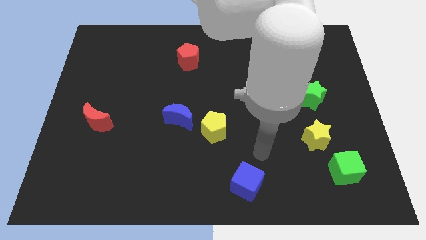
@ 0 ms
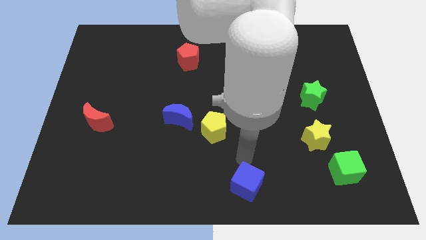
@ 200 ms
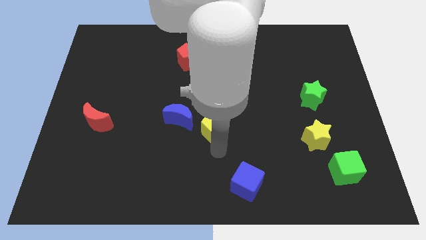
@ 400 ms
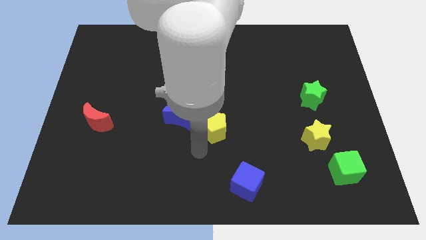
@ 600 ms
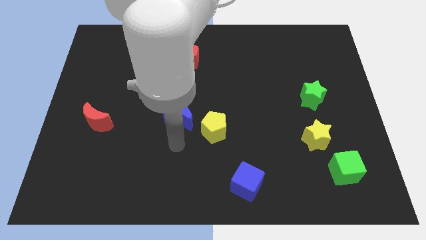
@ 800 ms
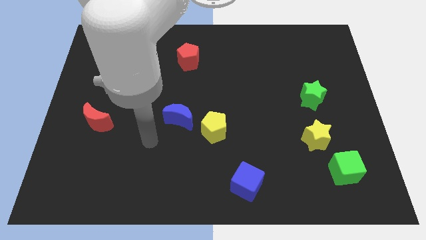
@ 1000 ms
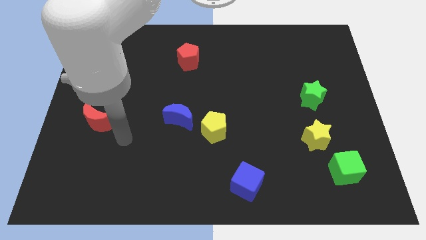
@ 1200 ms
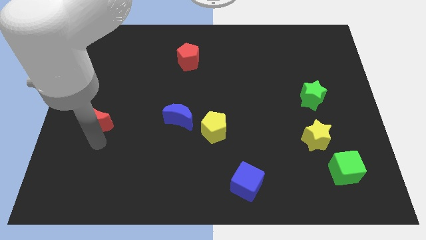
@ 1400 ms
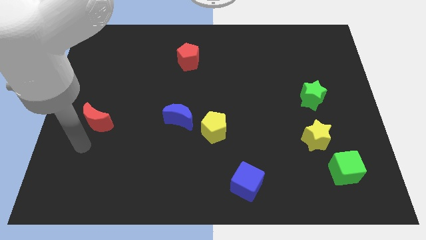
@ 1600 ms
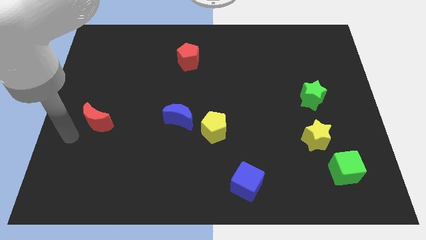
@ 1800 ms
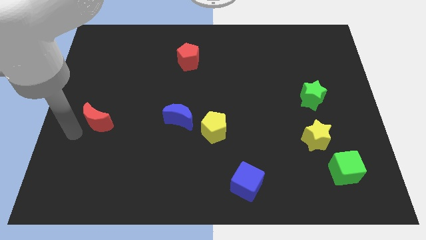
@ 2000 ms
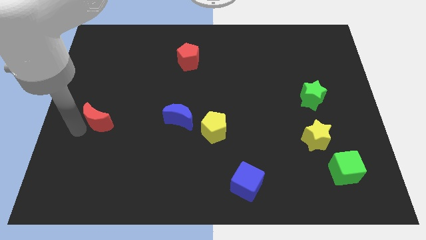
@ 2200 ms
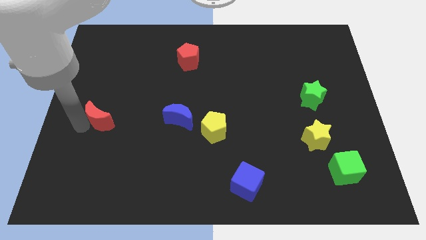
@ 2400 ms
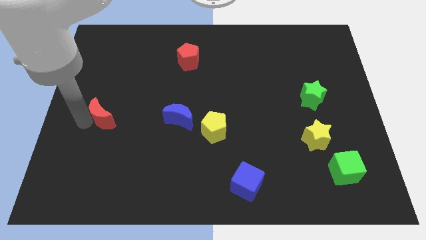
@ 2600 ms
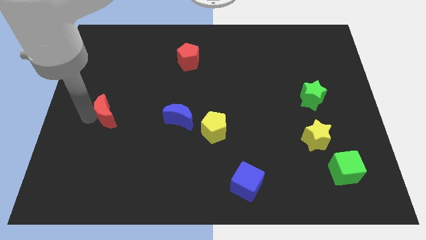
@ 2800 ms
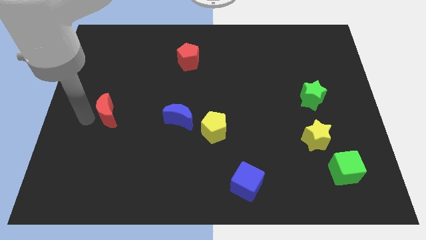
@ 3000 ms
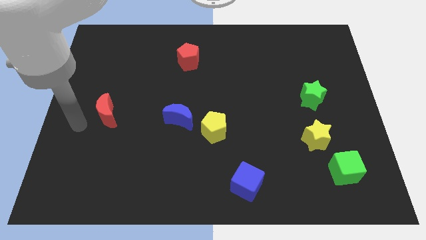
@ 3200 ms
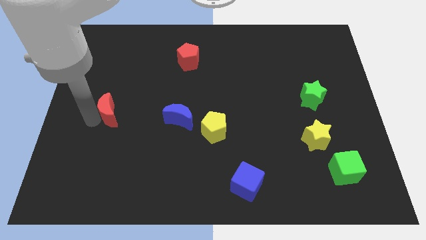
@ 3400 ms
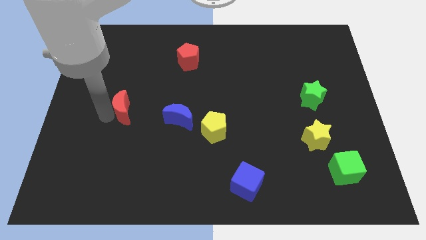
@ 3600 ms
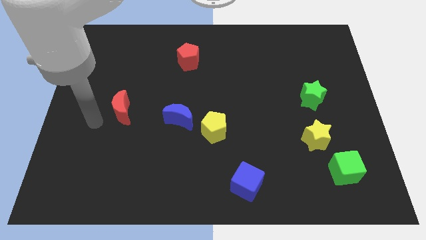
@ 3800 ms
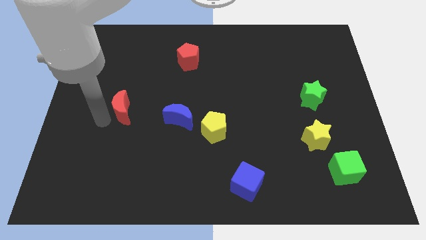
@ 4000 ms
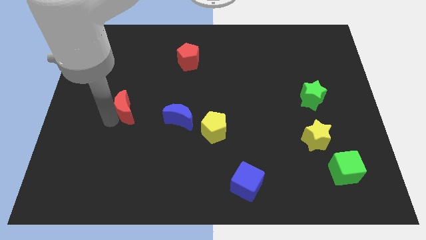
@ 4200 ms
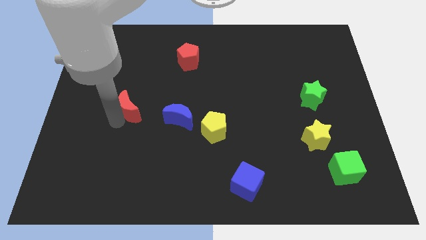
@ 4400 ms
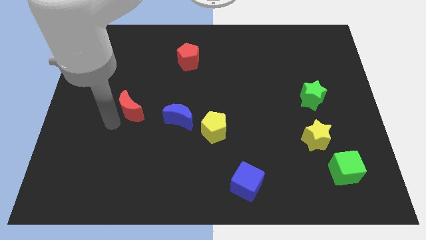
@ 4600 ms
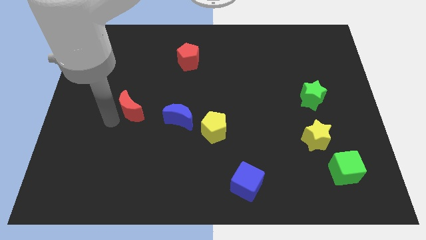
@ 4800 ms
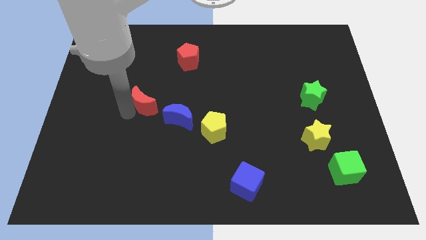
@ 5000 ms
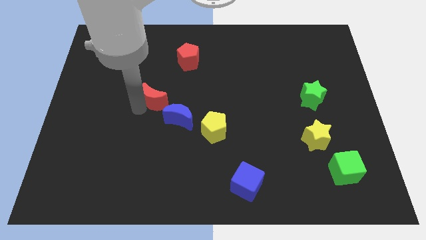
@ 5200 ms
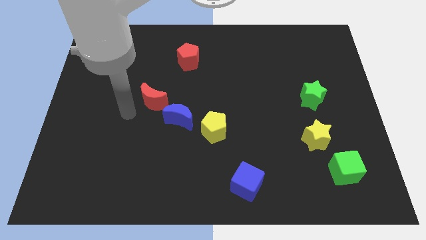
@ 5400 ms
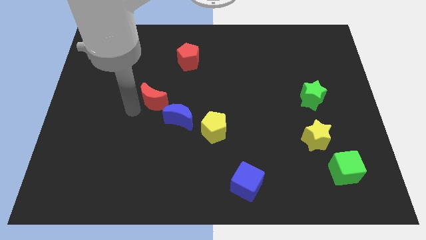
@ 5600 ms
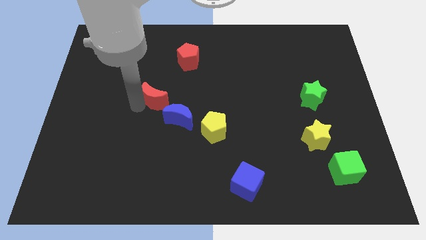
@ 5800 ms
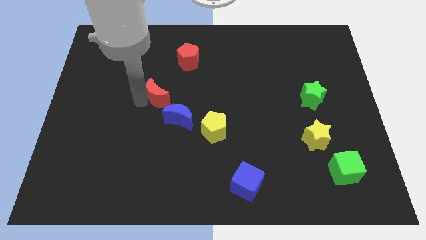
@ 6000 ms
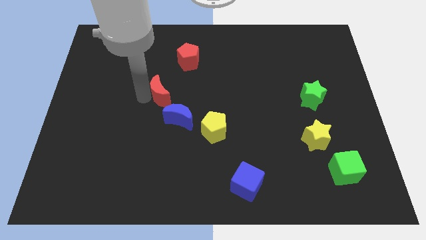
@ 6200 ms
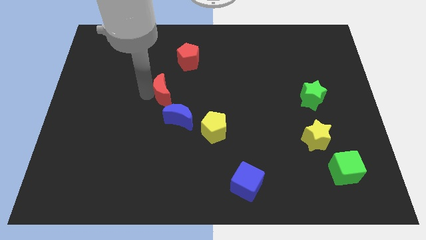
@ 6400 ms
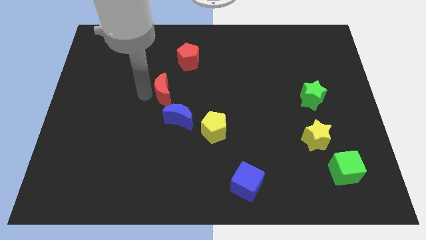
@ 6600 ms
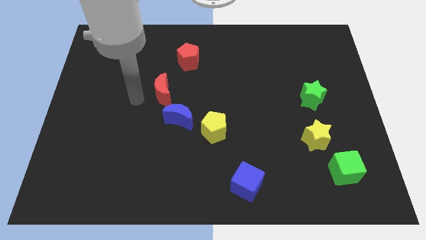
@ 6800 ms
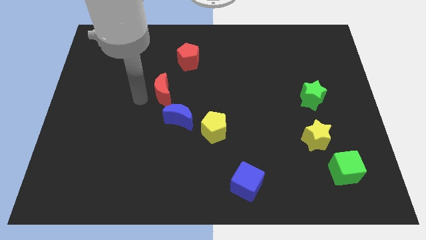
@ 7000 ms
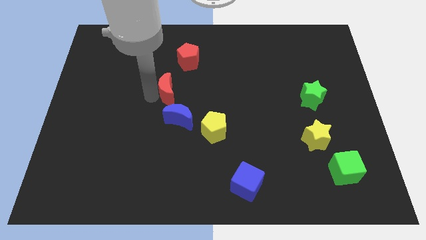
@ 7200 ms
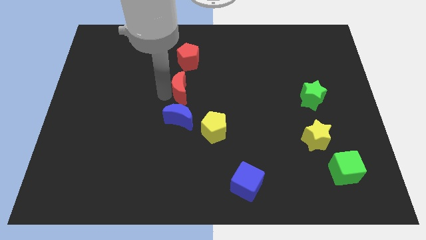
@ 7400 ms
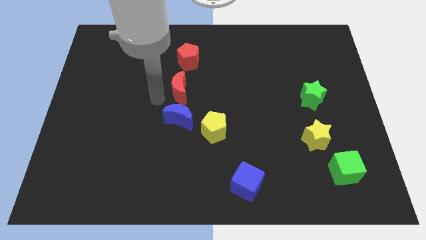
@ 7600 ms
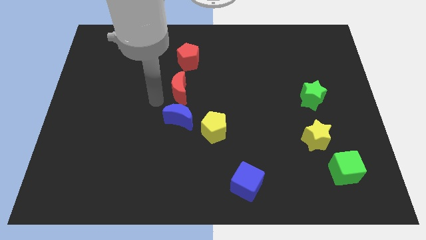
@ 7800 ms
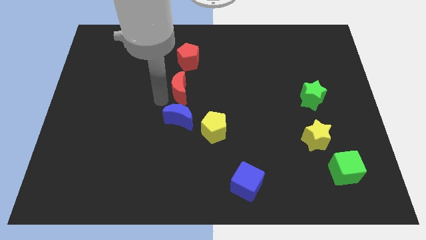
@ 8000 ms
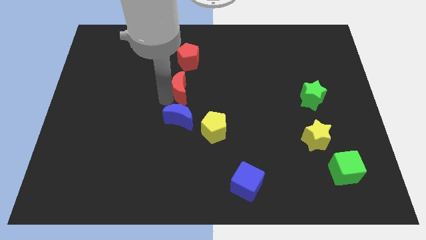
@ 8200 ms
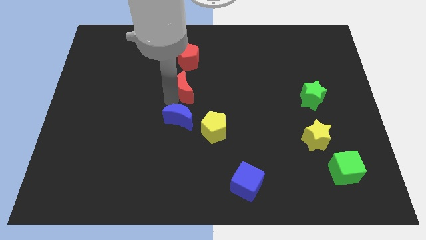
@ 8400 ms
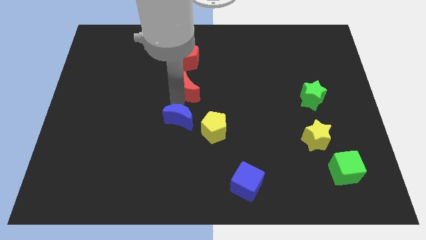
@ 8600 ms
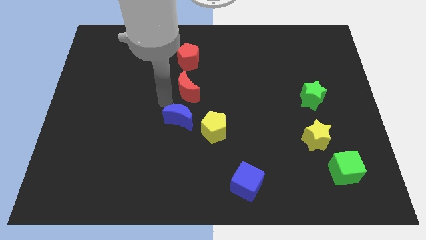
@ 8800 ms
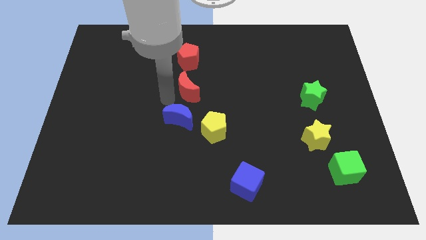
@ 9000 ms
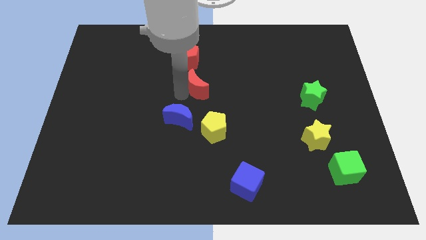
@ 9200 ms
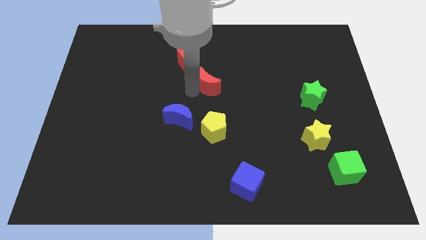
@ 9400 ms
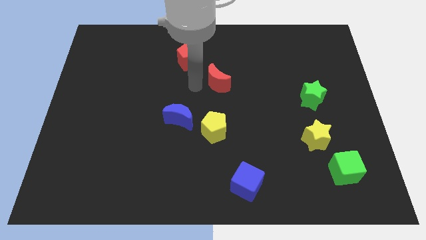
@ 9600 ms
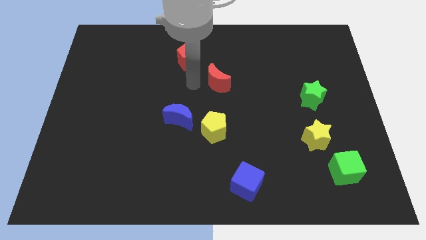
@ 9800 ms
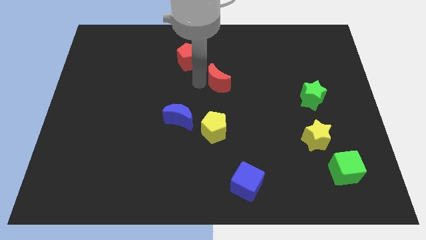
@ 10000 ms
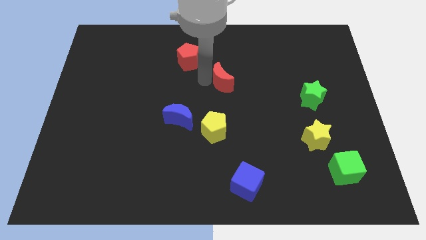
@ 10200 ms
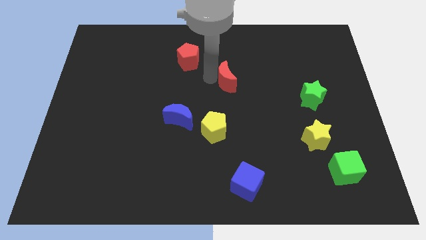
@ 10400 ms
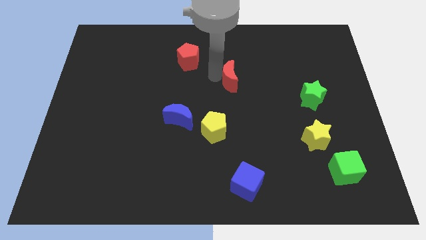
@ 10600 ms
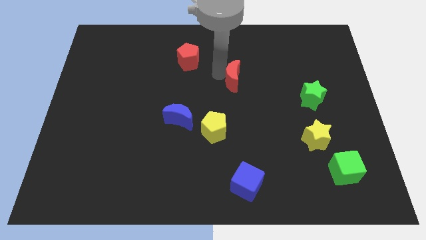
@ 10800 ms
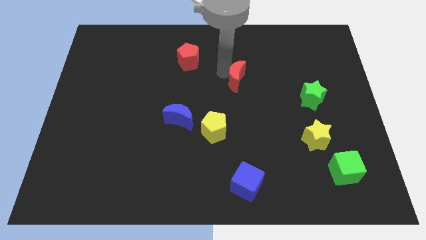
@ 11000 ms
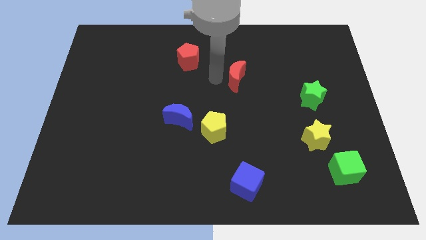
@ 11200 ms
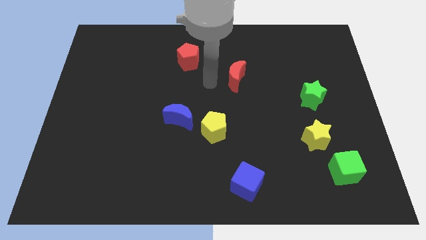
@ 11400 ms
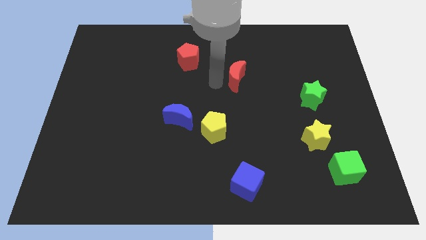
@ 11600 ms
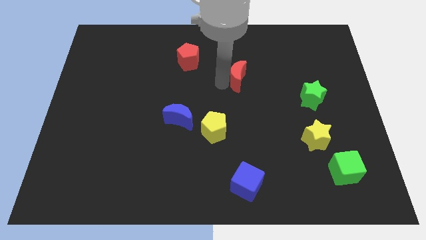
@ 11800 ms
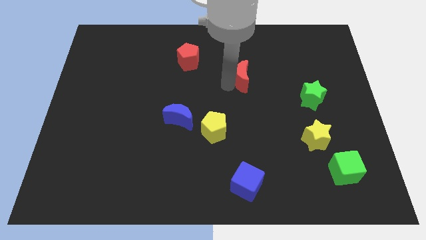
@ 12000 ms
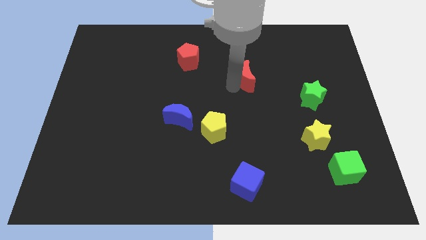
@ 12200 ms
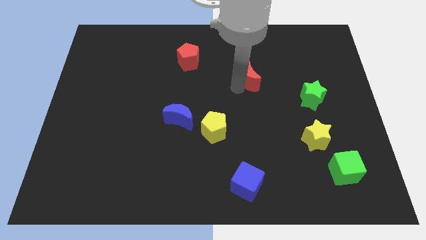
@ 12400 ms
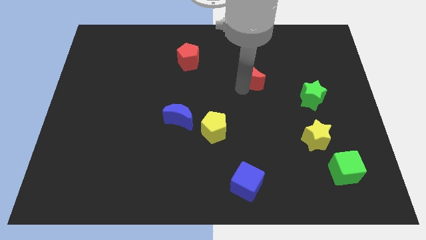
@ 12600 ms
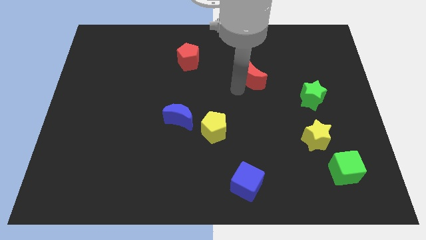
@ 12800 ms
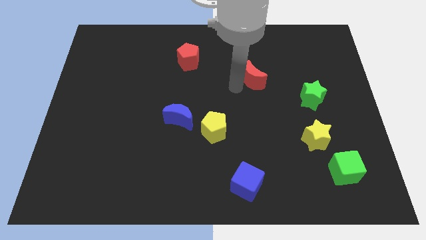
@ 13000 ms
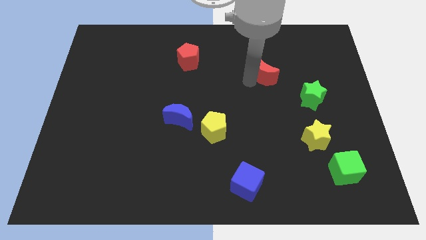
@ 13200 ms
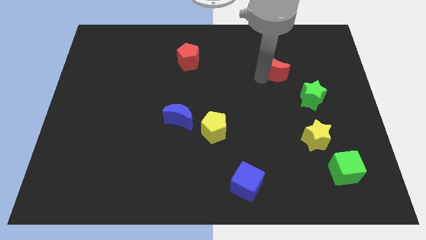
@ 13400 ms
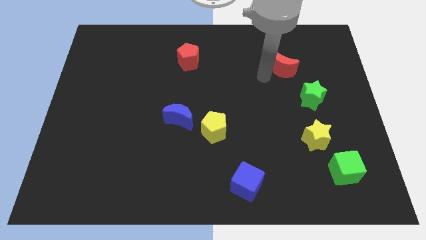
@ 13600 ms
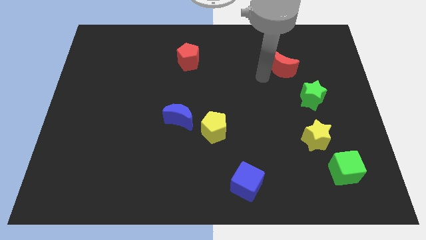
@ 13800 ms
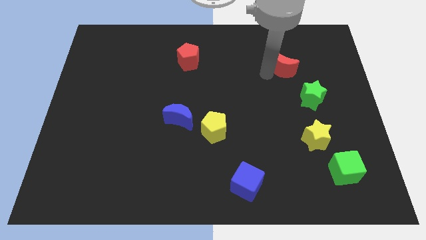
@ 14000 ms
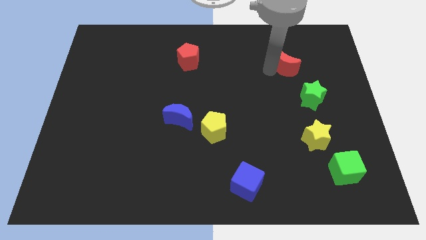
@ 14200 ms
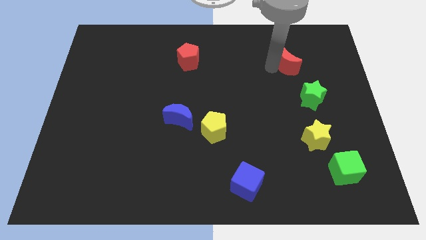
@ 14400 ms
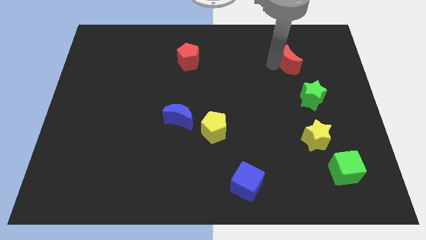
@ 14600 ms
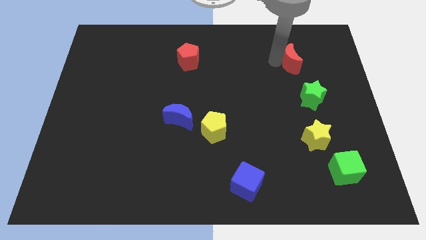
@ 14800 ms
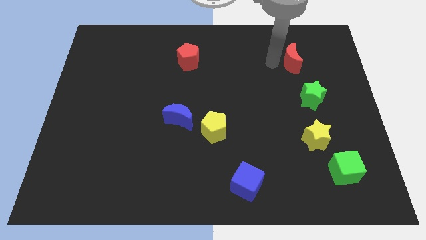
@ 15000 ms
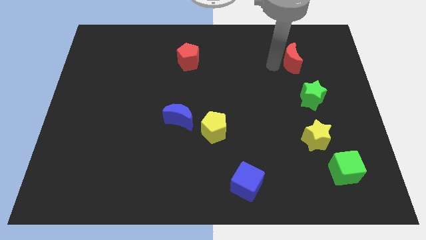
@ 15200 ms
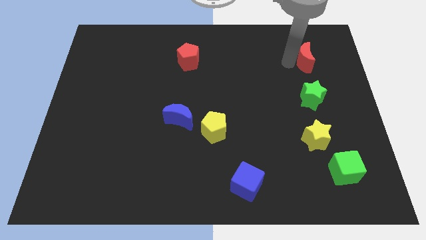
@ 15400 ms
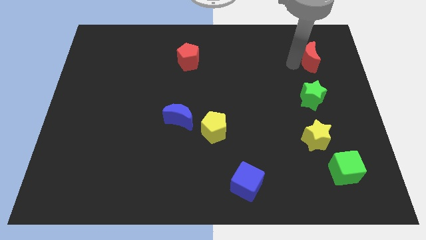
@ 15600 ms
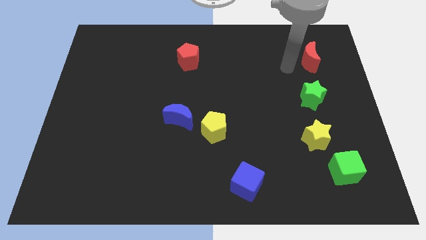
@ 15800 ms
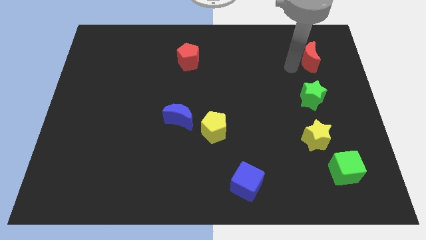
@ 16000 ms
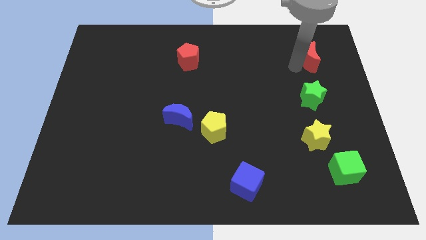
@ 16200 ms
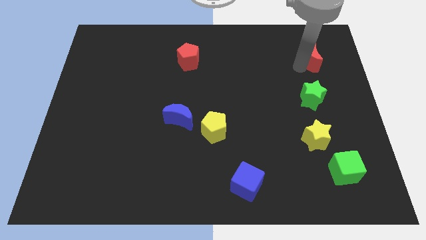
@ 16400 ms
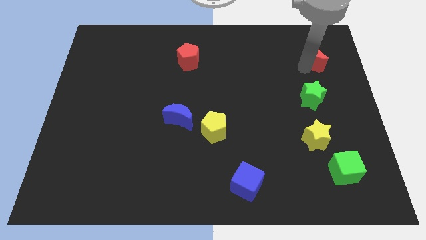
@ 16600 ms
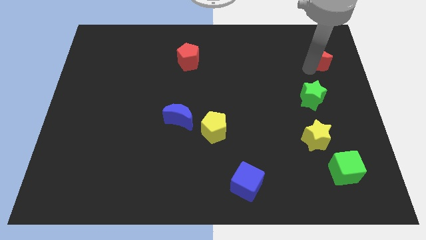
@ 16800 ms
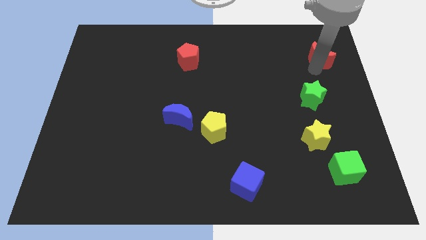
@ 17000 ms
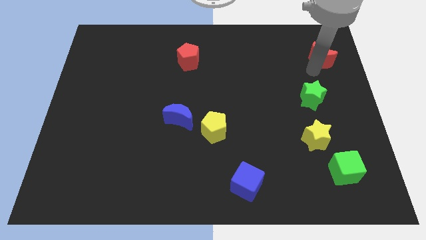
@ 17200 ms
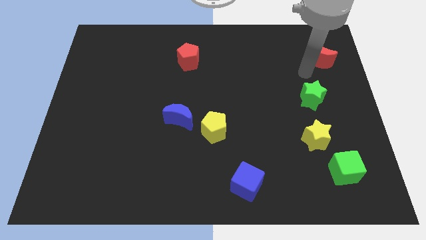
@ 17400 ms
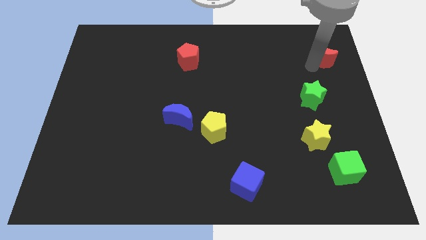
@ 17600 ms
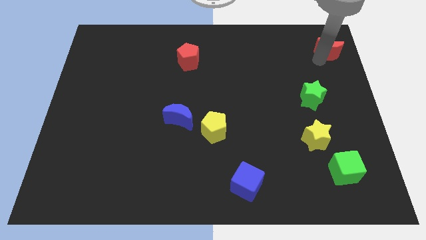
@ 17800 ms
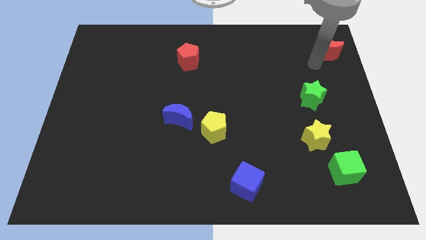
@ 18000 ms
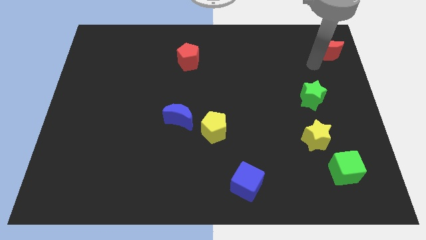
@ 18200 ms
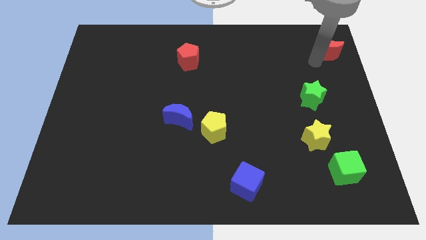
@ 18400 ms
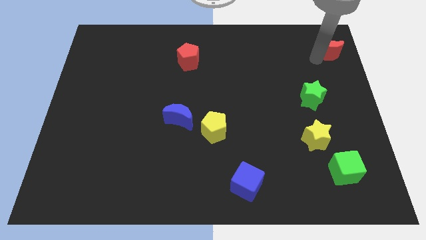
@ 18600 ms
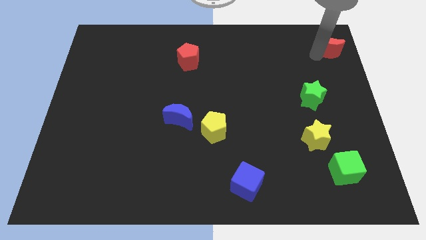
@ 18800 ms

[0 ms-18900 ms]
push the red moon to the upper right corner
